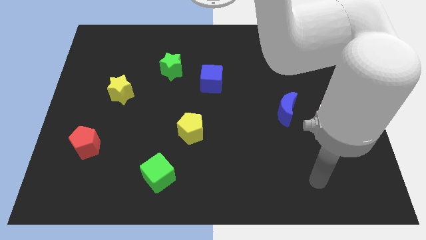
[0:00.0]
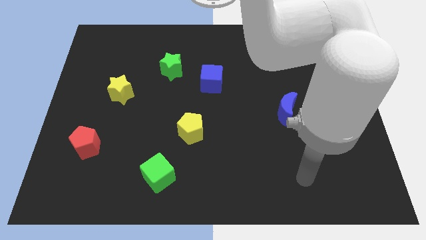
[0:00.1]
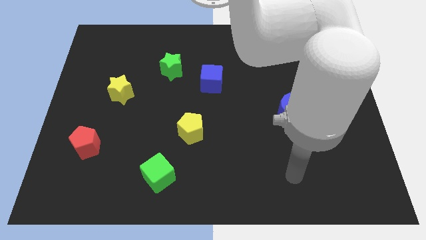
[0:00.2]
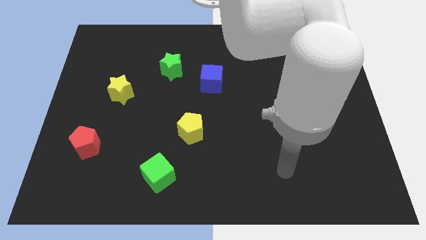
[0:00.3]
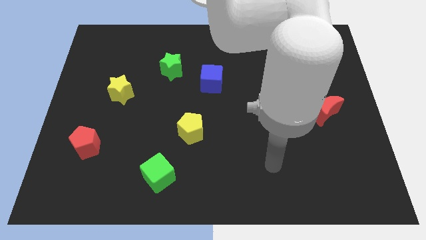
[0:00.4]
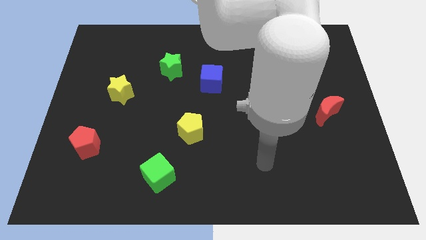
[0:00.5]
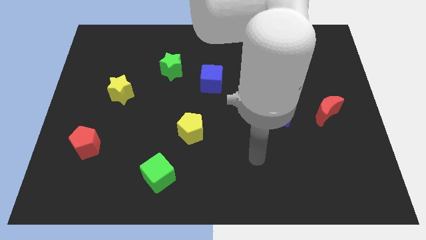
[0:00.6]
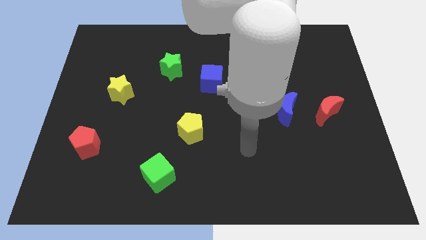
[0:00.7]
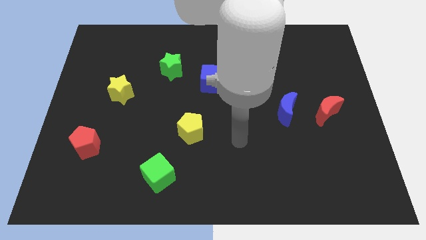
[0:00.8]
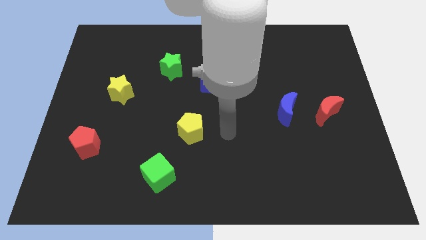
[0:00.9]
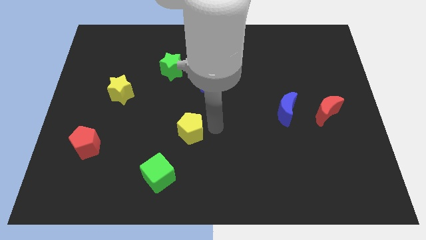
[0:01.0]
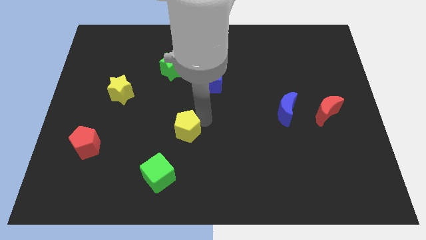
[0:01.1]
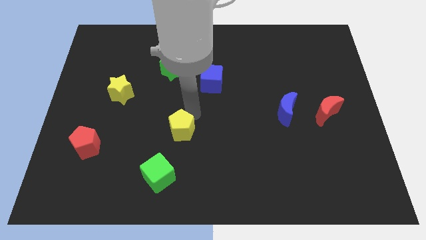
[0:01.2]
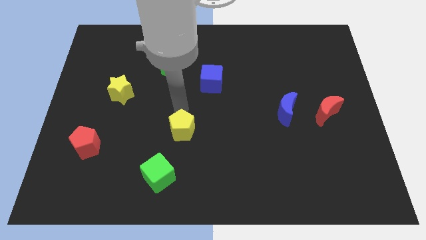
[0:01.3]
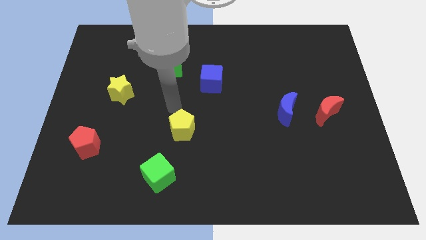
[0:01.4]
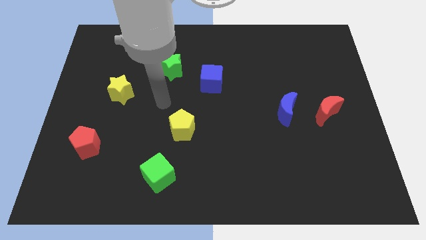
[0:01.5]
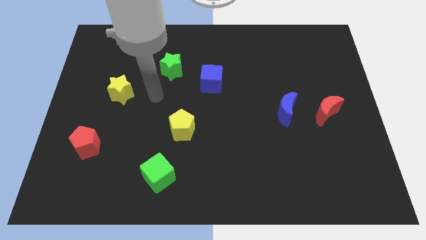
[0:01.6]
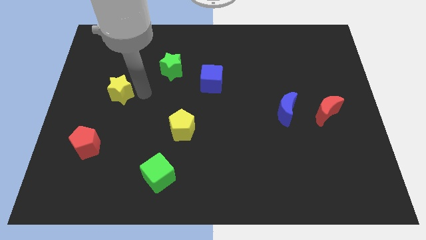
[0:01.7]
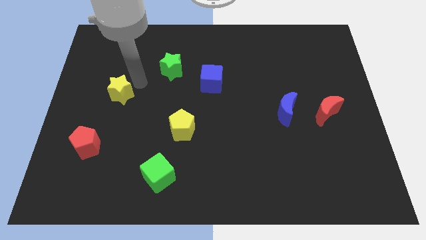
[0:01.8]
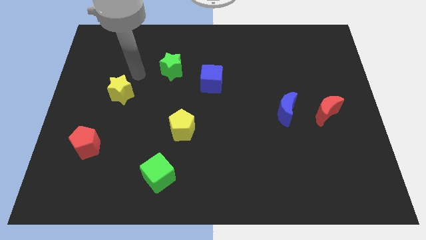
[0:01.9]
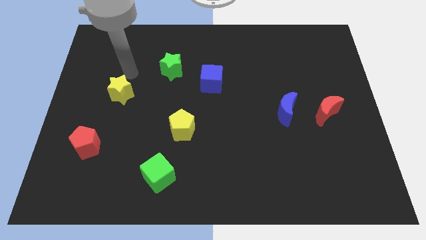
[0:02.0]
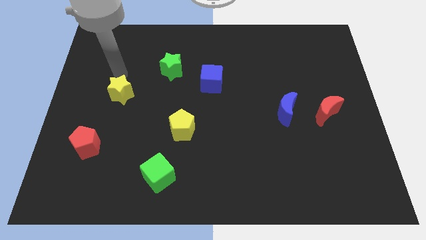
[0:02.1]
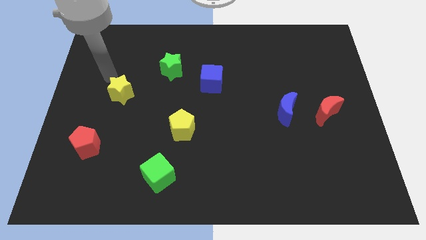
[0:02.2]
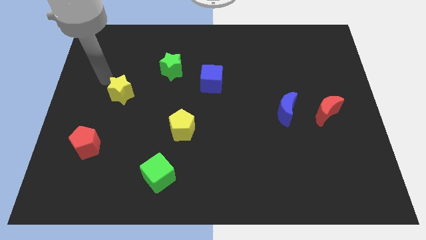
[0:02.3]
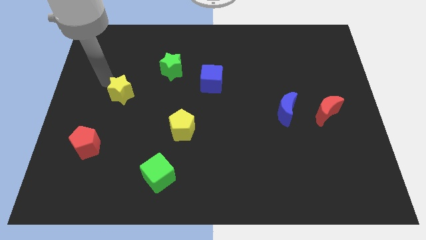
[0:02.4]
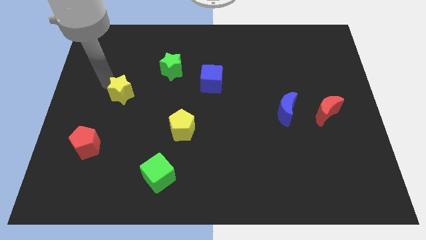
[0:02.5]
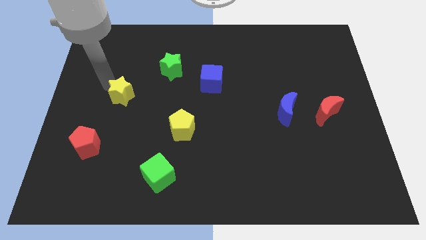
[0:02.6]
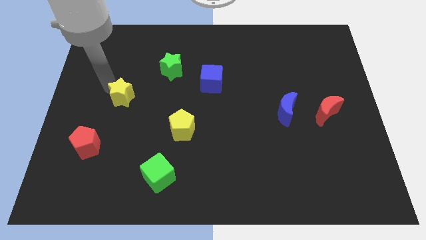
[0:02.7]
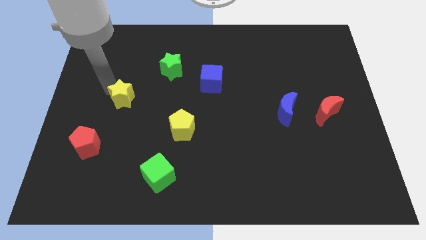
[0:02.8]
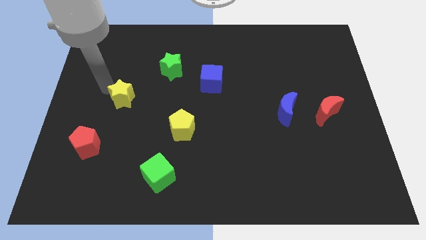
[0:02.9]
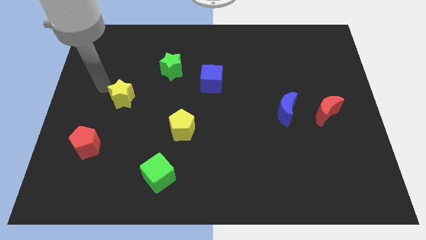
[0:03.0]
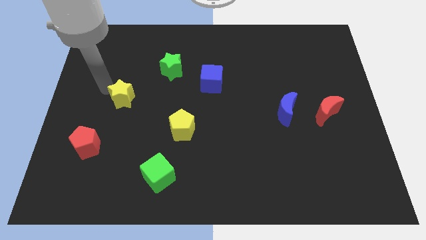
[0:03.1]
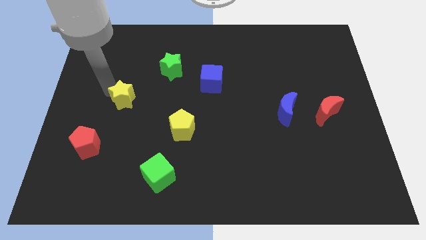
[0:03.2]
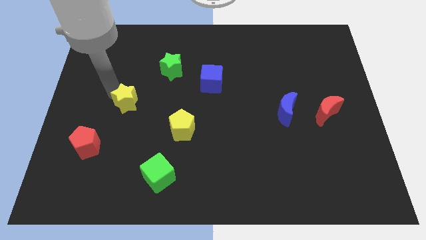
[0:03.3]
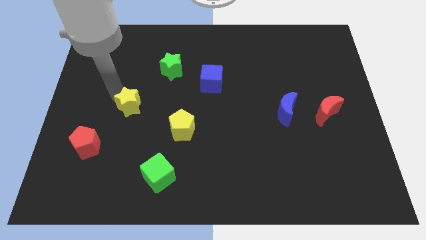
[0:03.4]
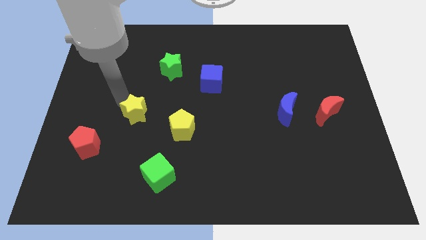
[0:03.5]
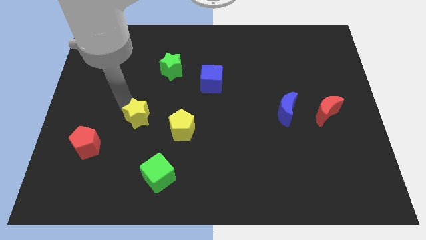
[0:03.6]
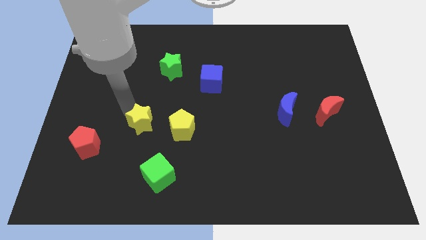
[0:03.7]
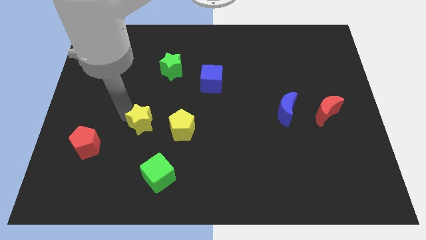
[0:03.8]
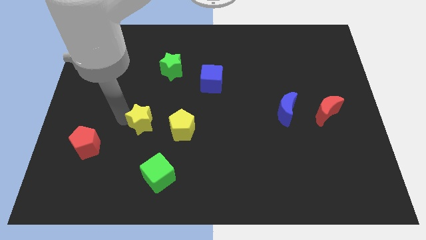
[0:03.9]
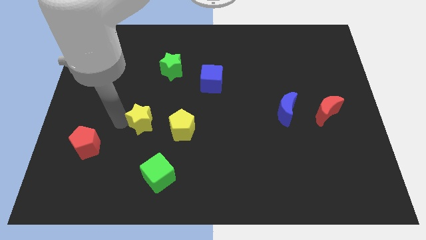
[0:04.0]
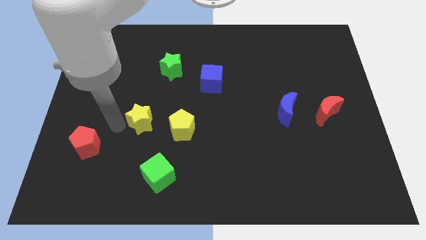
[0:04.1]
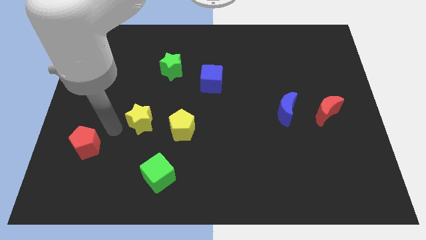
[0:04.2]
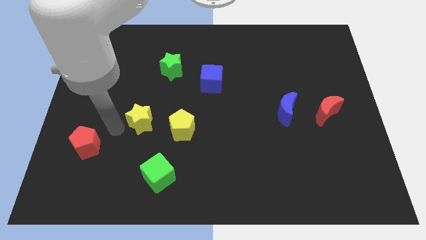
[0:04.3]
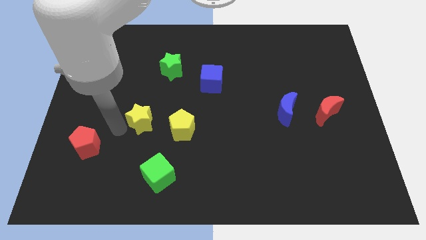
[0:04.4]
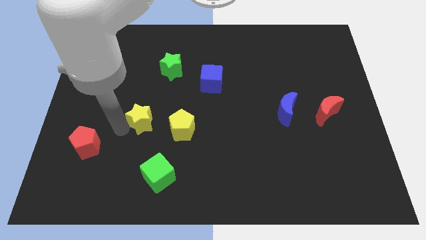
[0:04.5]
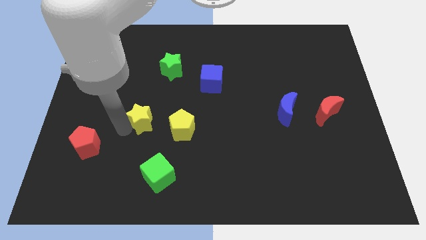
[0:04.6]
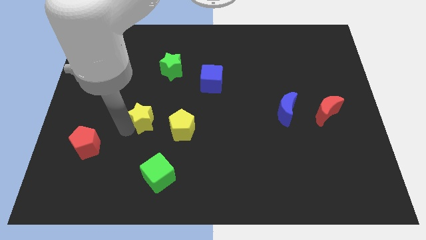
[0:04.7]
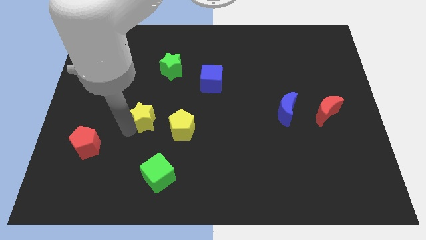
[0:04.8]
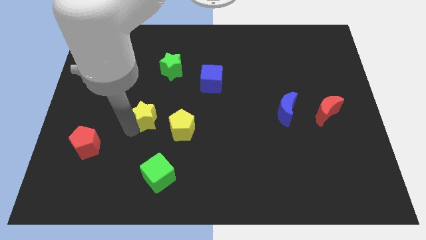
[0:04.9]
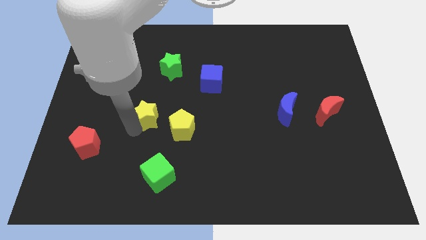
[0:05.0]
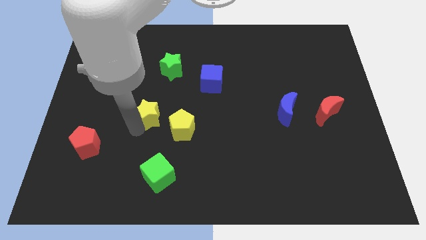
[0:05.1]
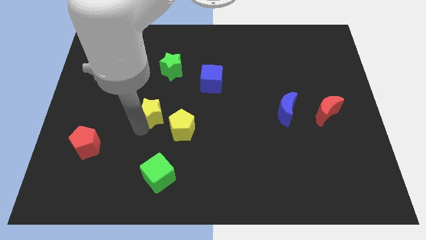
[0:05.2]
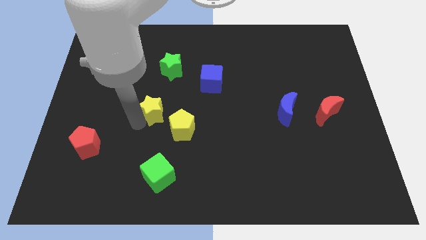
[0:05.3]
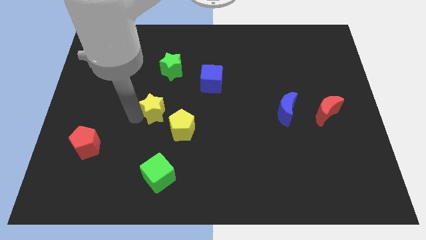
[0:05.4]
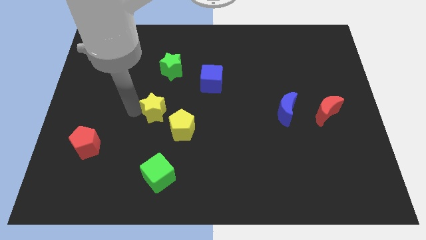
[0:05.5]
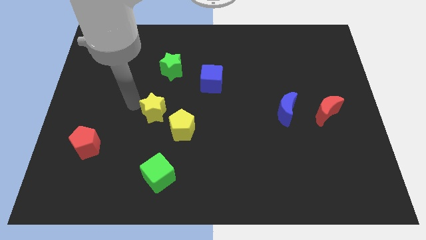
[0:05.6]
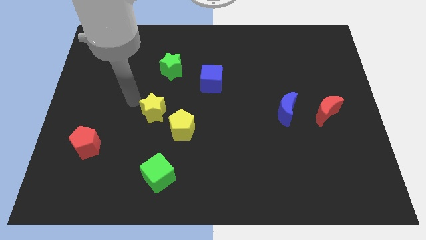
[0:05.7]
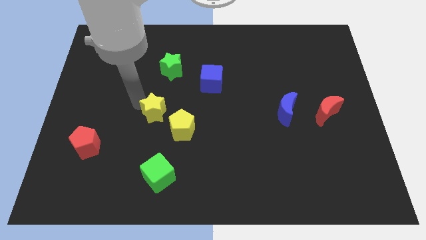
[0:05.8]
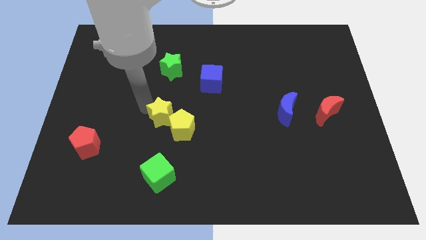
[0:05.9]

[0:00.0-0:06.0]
move the yellow star to the yellow pentagon

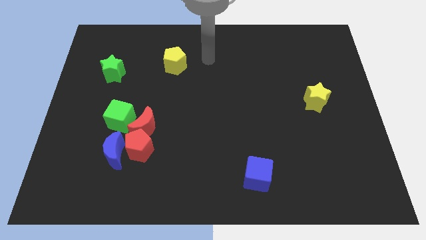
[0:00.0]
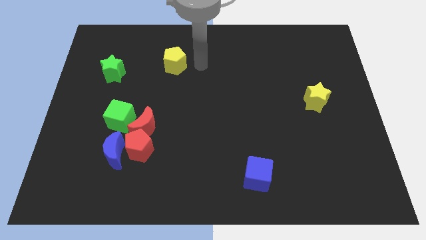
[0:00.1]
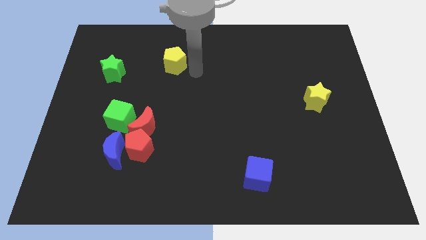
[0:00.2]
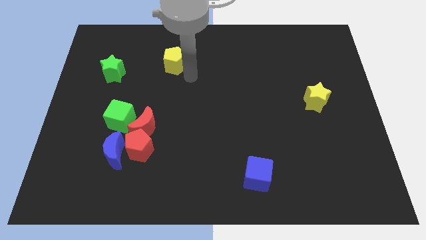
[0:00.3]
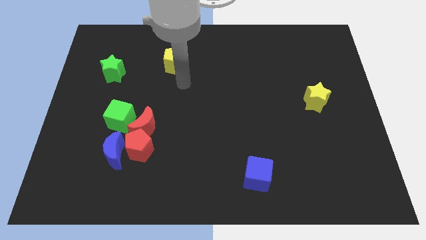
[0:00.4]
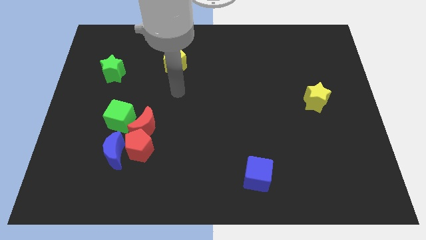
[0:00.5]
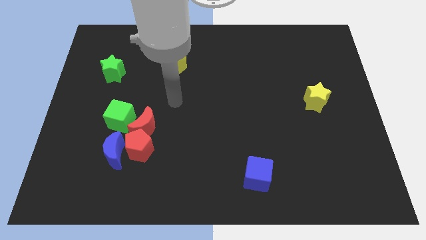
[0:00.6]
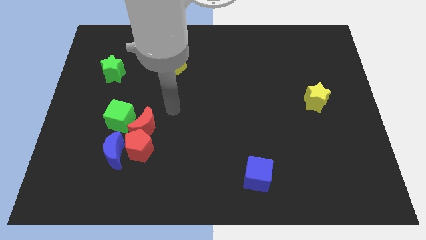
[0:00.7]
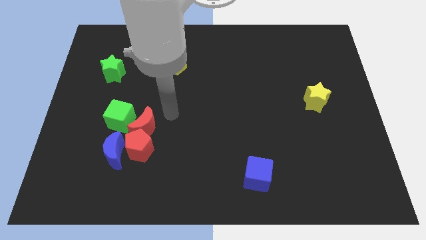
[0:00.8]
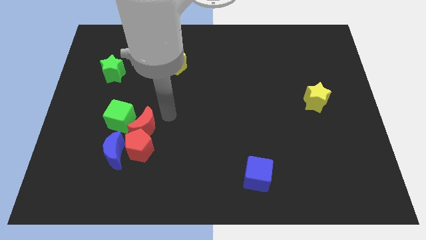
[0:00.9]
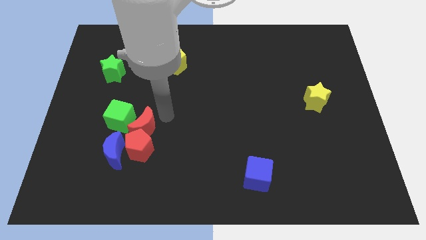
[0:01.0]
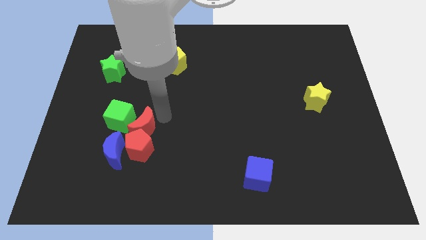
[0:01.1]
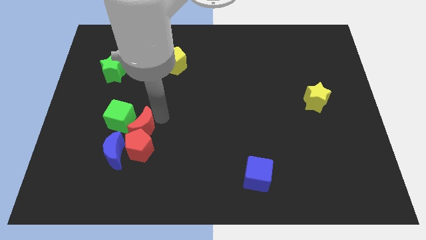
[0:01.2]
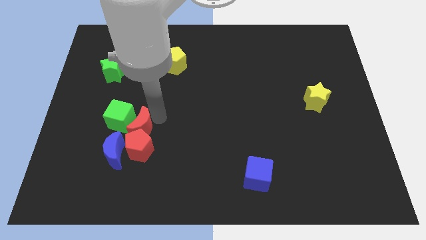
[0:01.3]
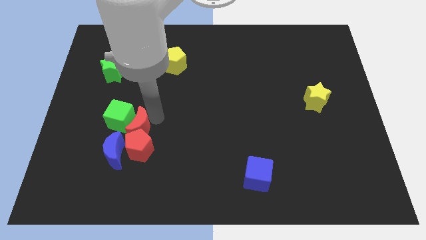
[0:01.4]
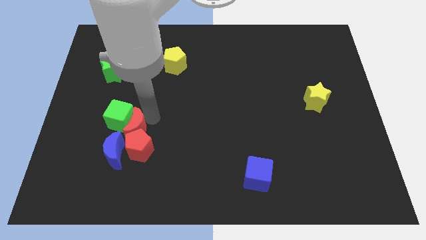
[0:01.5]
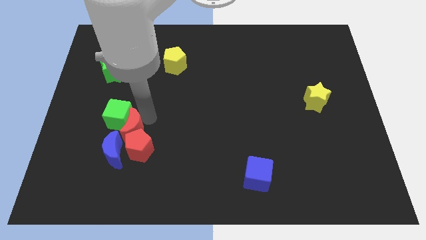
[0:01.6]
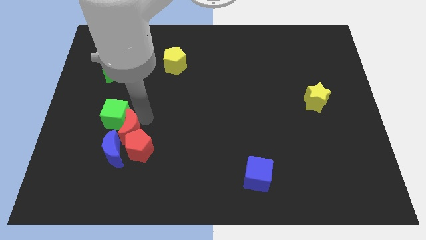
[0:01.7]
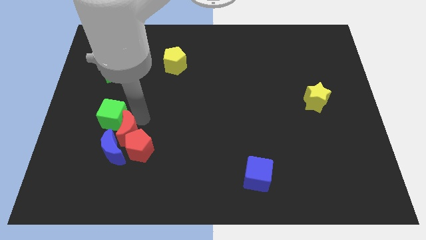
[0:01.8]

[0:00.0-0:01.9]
put the red moon to the blue moon

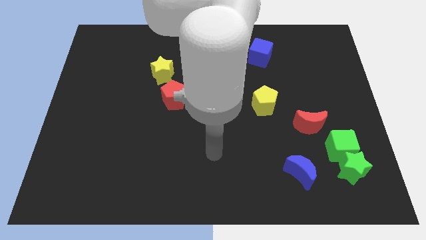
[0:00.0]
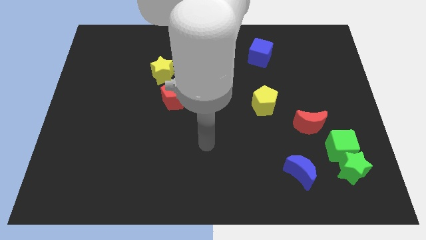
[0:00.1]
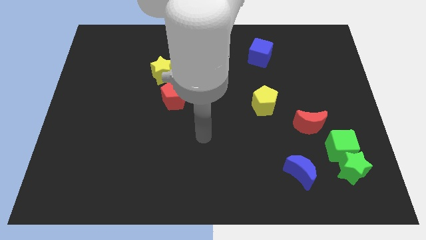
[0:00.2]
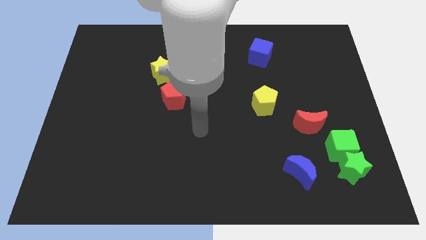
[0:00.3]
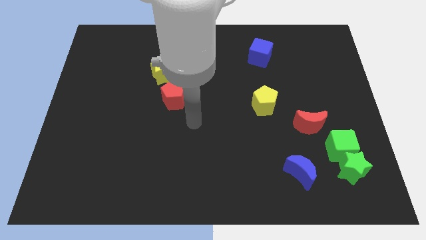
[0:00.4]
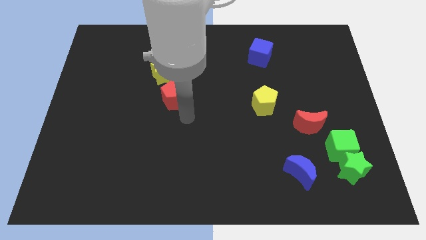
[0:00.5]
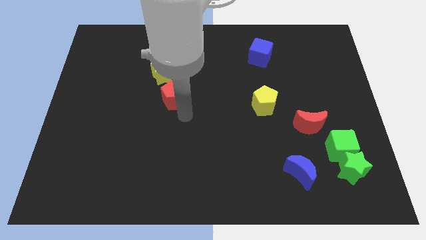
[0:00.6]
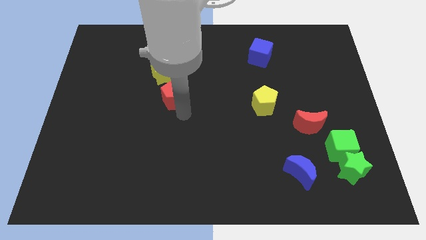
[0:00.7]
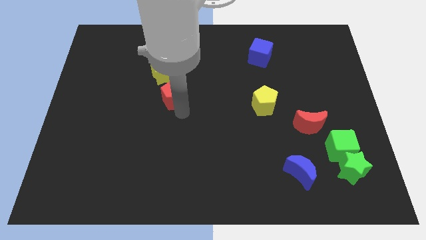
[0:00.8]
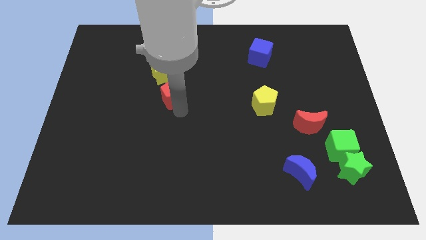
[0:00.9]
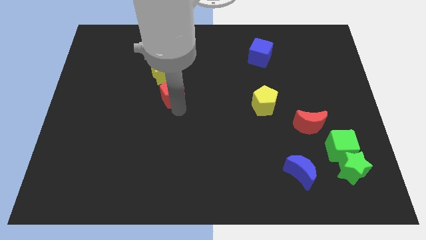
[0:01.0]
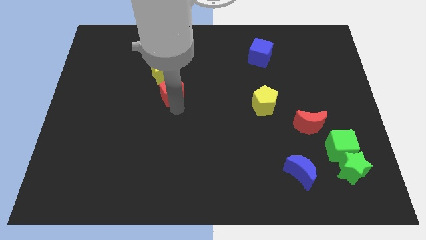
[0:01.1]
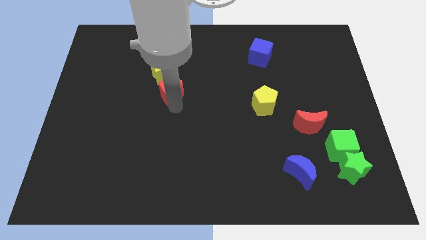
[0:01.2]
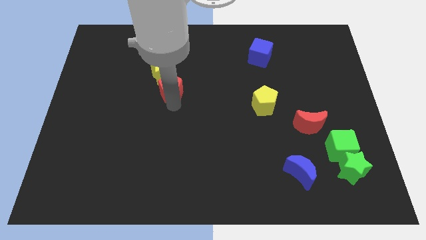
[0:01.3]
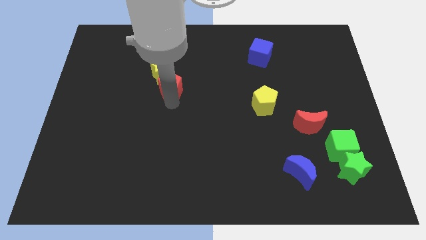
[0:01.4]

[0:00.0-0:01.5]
slide the red pentagon to the yellow star
